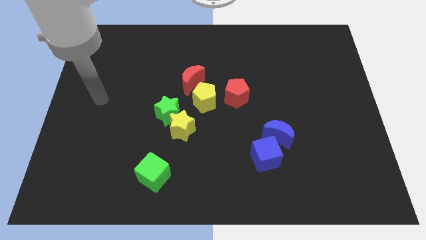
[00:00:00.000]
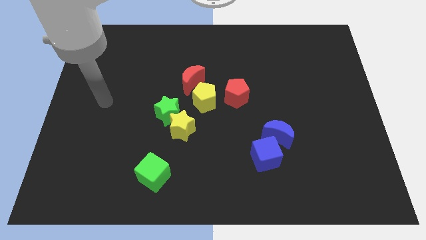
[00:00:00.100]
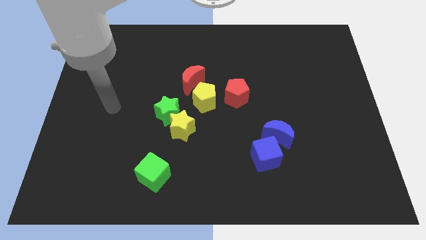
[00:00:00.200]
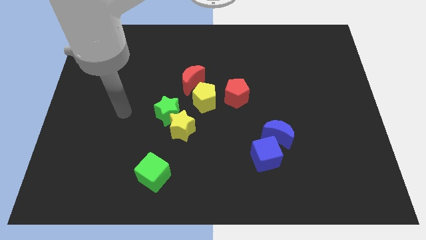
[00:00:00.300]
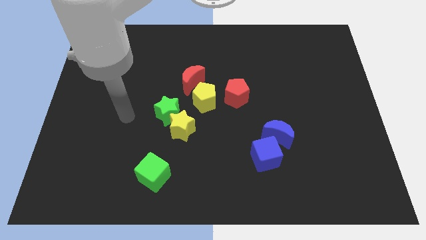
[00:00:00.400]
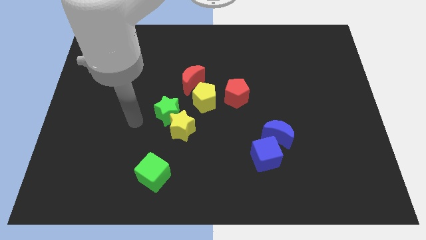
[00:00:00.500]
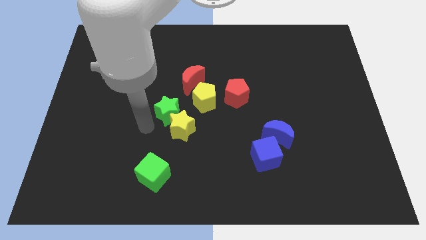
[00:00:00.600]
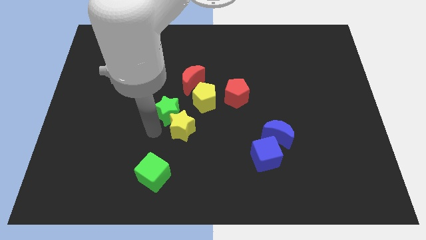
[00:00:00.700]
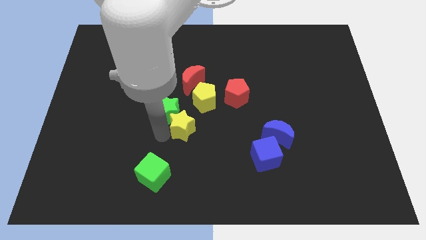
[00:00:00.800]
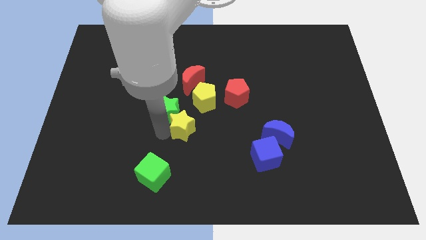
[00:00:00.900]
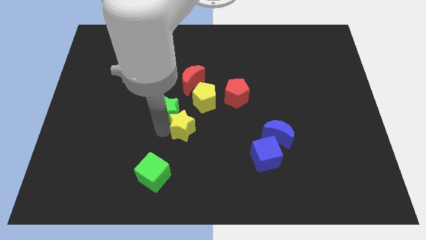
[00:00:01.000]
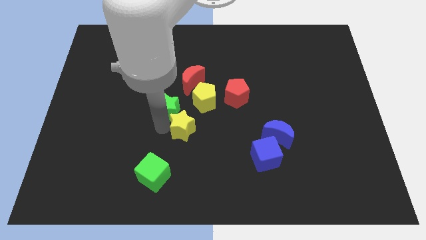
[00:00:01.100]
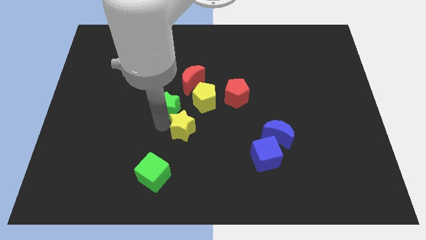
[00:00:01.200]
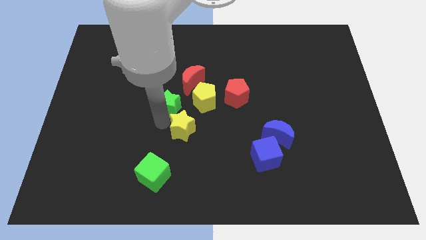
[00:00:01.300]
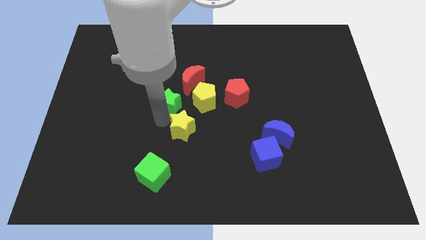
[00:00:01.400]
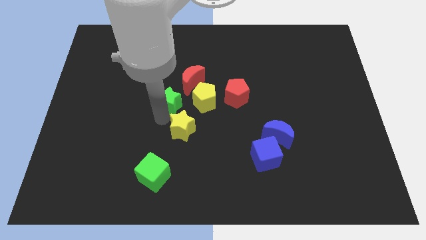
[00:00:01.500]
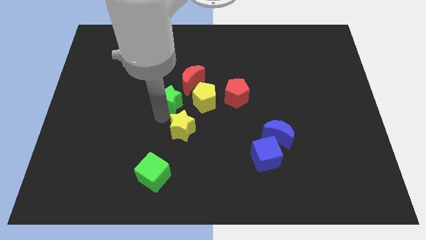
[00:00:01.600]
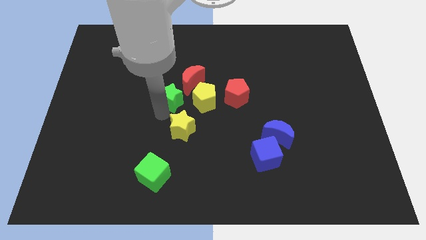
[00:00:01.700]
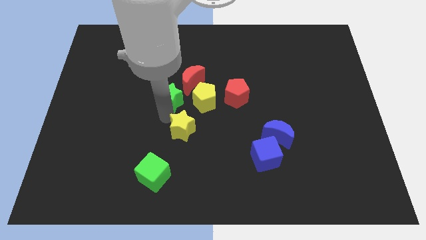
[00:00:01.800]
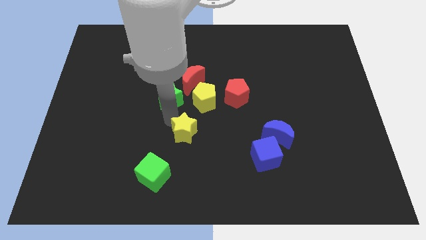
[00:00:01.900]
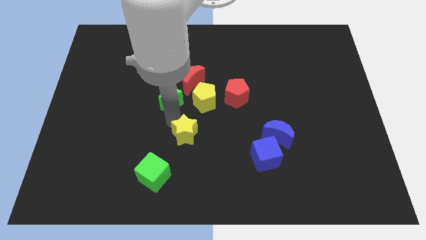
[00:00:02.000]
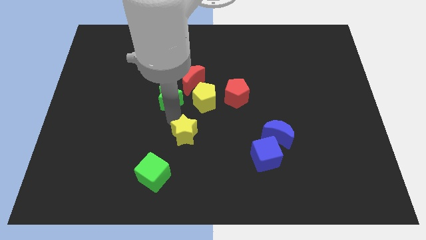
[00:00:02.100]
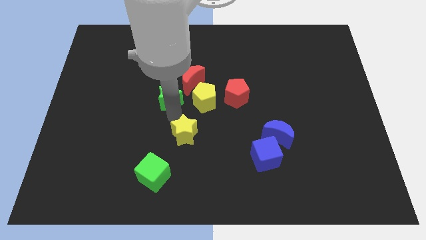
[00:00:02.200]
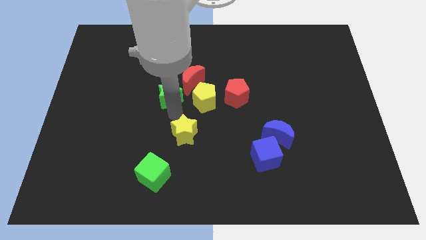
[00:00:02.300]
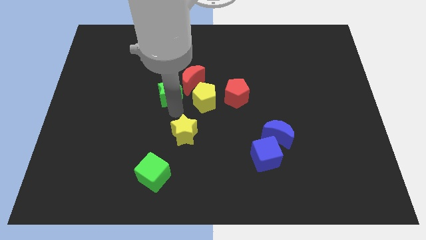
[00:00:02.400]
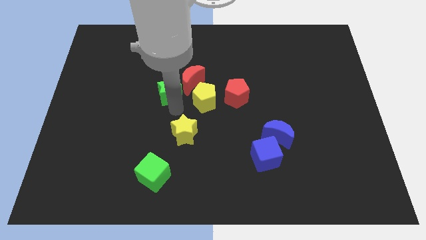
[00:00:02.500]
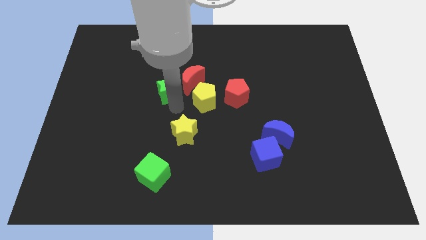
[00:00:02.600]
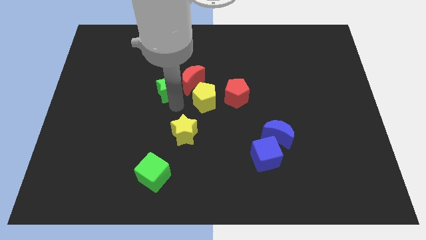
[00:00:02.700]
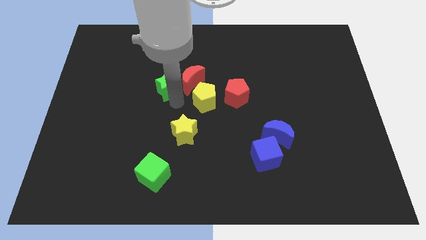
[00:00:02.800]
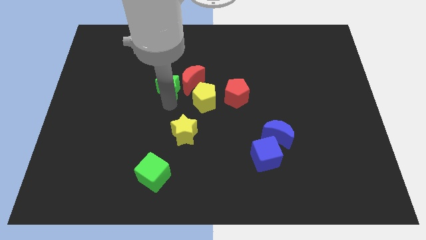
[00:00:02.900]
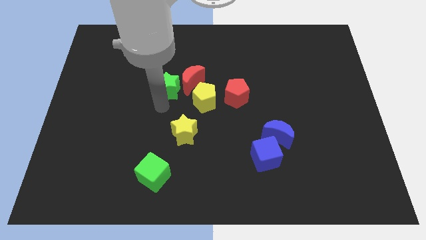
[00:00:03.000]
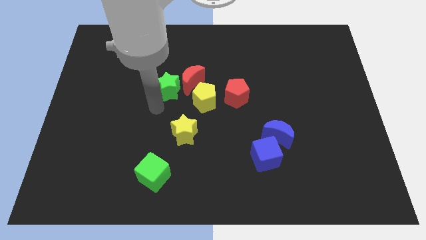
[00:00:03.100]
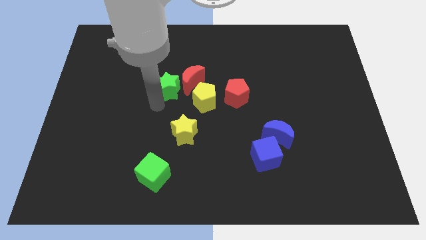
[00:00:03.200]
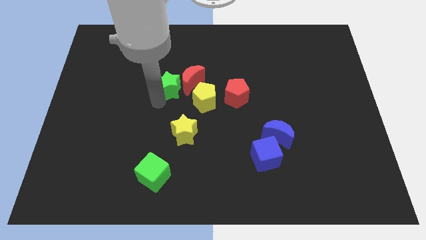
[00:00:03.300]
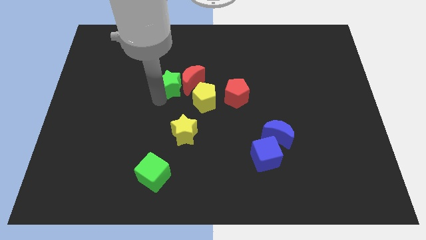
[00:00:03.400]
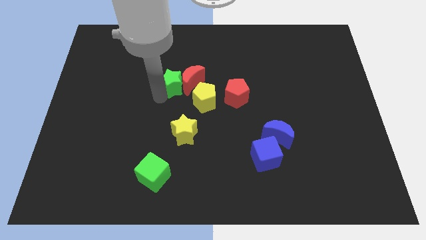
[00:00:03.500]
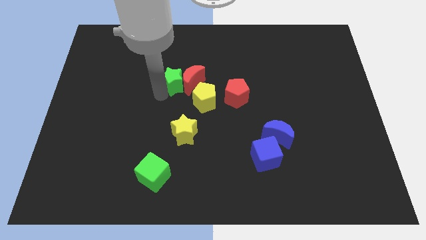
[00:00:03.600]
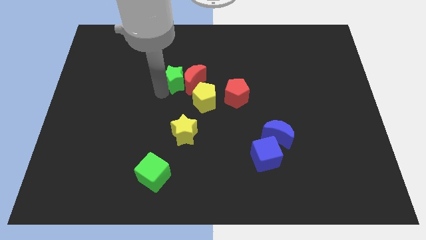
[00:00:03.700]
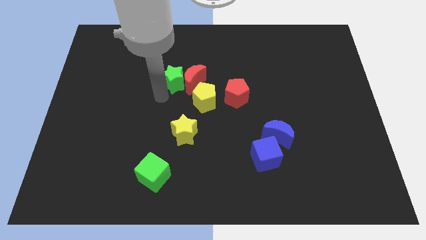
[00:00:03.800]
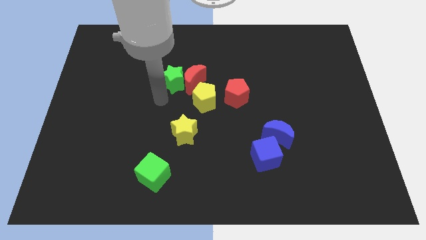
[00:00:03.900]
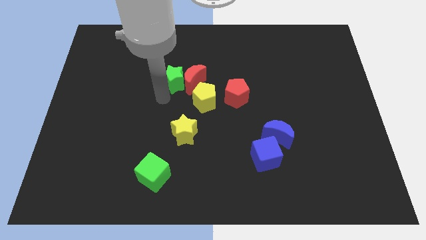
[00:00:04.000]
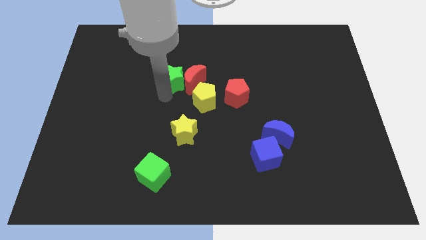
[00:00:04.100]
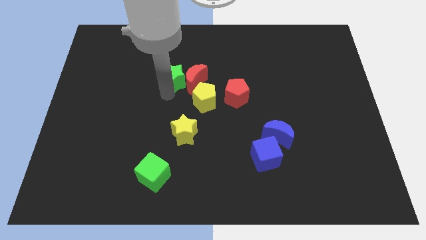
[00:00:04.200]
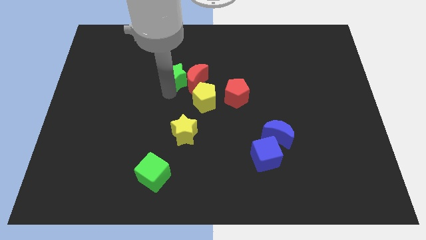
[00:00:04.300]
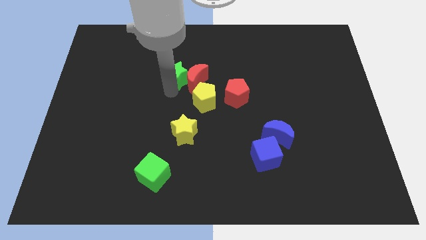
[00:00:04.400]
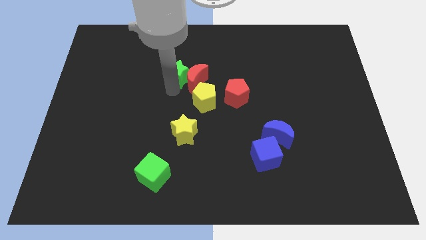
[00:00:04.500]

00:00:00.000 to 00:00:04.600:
push the green star somewhat upwards and to the right diagonally

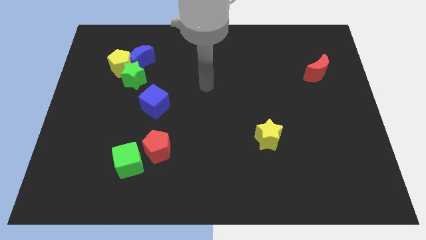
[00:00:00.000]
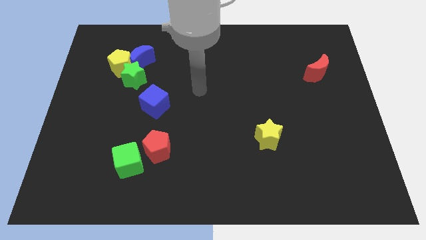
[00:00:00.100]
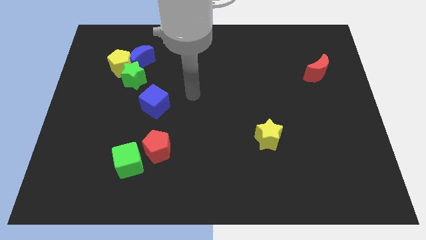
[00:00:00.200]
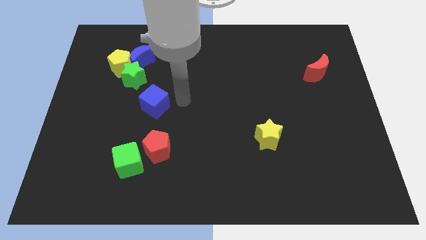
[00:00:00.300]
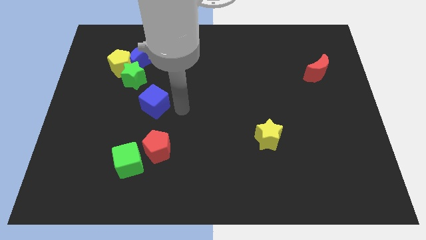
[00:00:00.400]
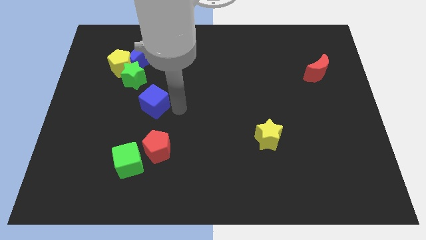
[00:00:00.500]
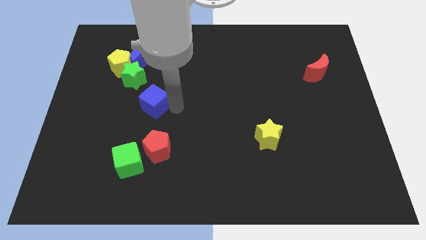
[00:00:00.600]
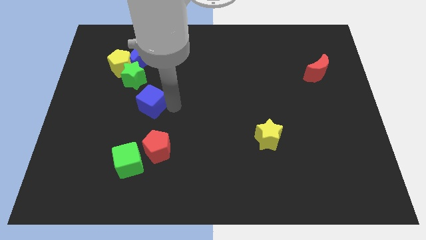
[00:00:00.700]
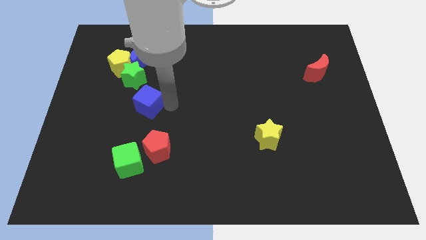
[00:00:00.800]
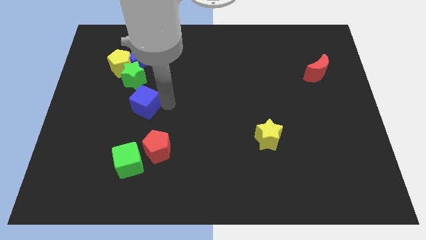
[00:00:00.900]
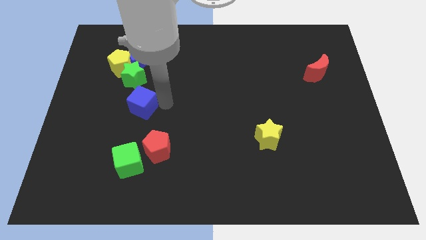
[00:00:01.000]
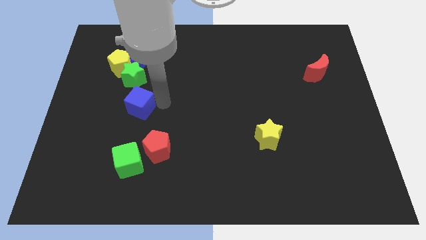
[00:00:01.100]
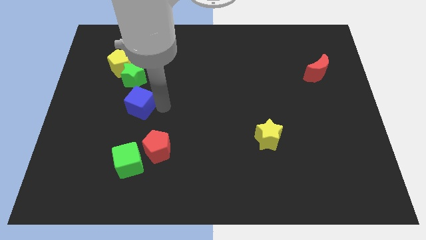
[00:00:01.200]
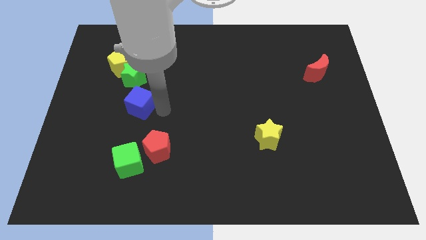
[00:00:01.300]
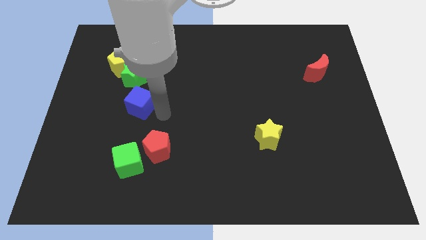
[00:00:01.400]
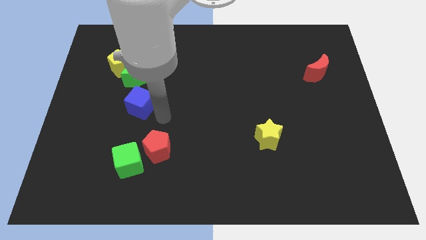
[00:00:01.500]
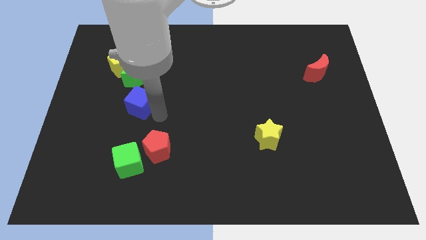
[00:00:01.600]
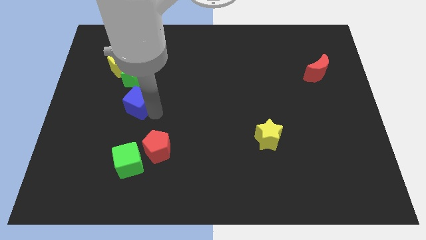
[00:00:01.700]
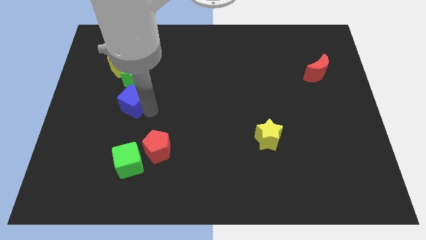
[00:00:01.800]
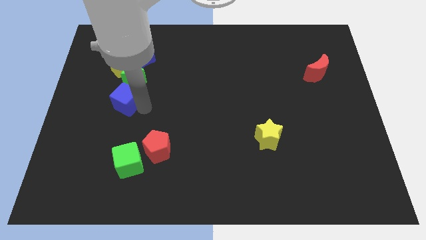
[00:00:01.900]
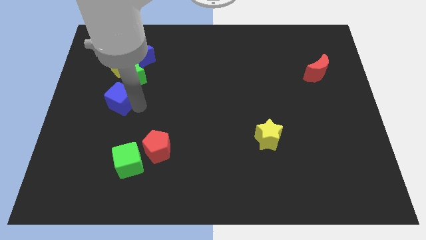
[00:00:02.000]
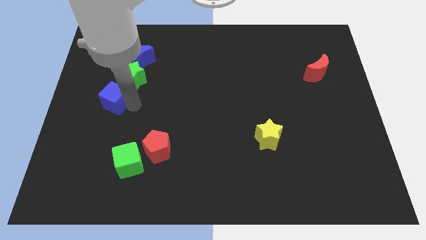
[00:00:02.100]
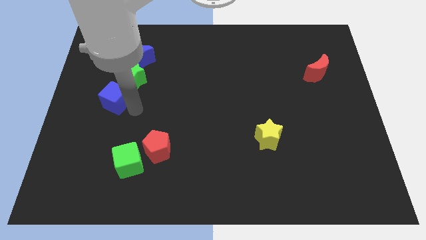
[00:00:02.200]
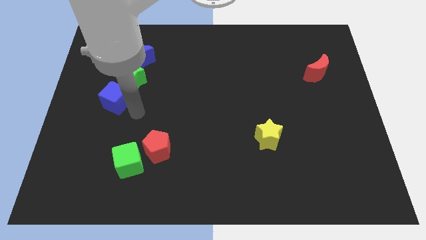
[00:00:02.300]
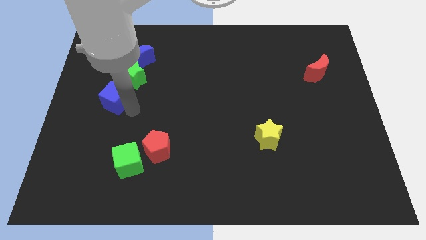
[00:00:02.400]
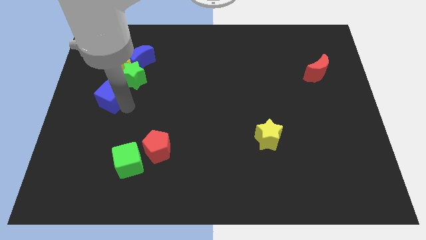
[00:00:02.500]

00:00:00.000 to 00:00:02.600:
move the blue cube up and left a little

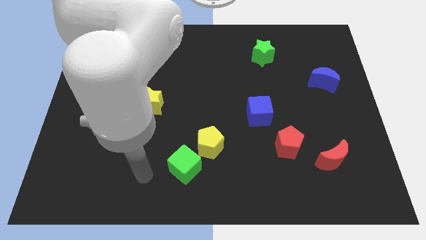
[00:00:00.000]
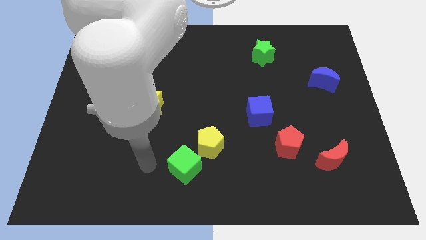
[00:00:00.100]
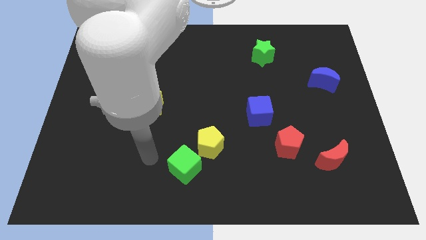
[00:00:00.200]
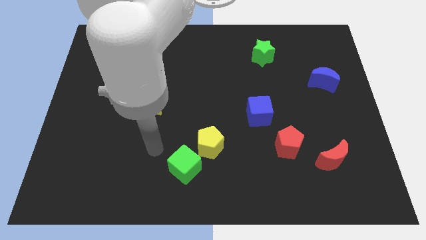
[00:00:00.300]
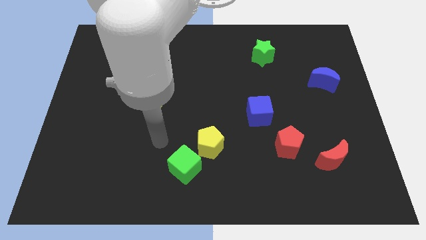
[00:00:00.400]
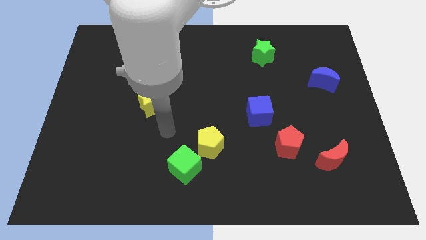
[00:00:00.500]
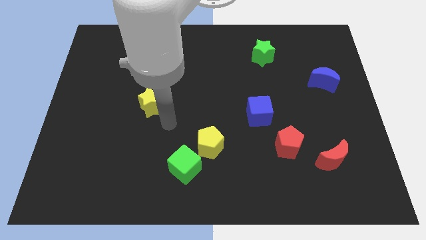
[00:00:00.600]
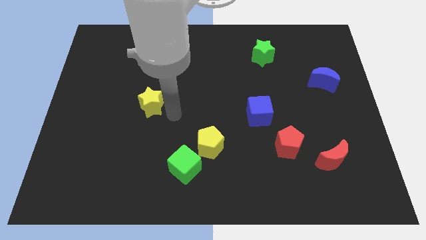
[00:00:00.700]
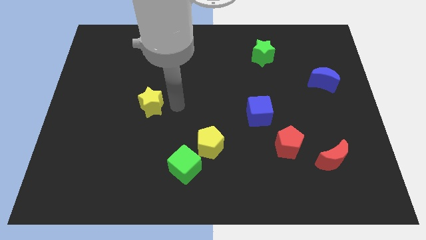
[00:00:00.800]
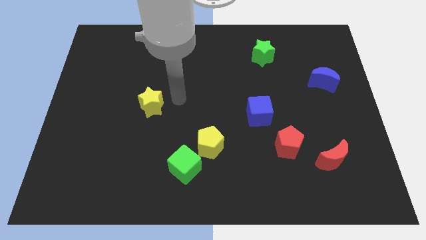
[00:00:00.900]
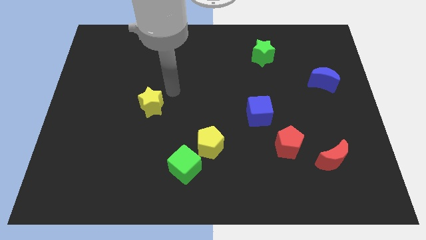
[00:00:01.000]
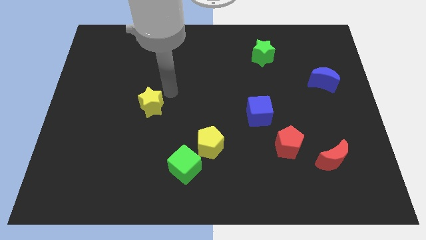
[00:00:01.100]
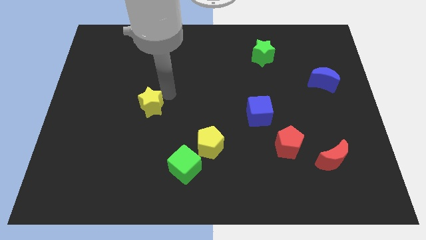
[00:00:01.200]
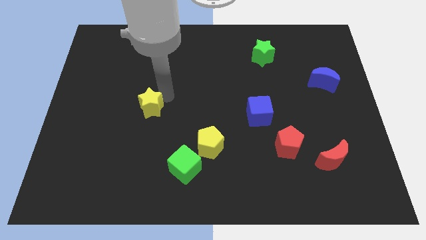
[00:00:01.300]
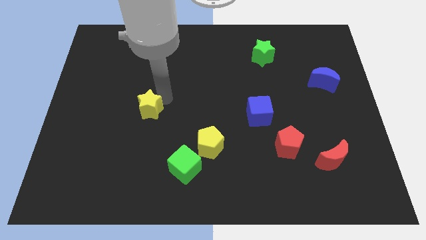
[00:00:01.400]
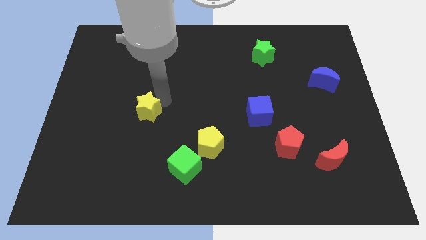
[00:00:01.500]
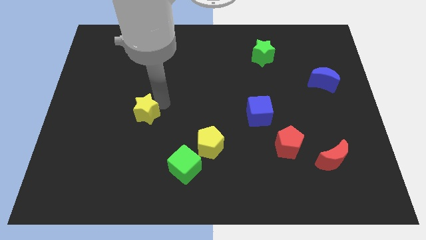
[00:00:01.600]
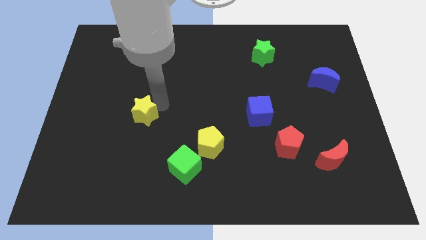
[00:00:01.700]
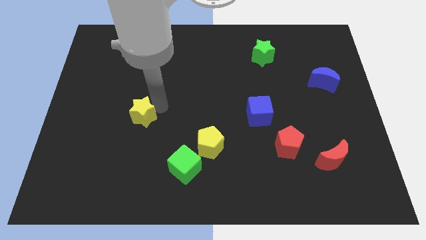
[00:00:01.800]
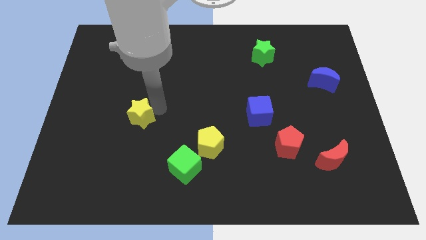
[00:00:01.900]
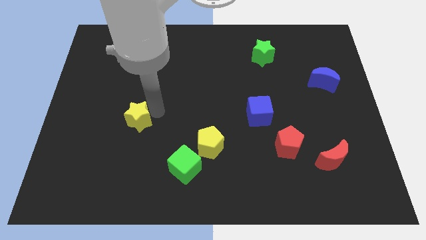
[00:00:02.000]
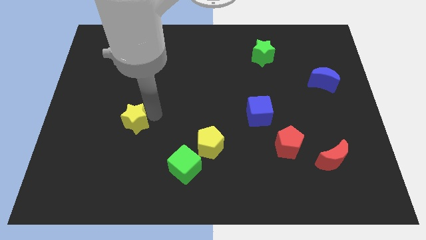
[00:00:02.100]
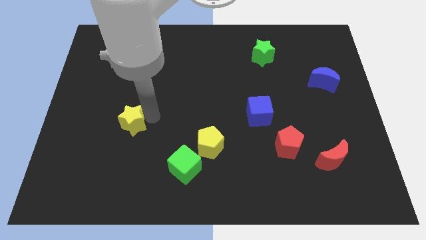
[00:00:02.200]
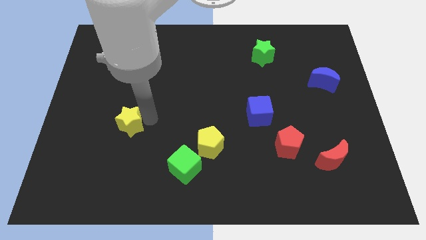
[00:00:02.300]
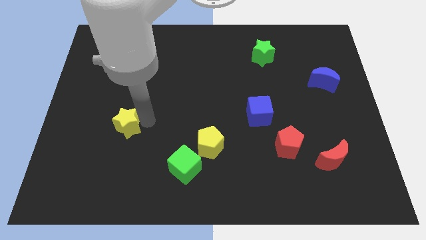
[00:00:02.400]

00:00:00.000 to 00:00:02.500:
slightly push the yellow star diagonally down and to the left
